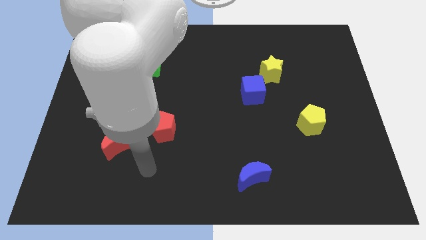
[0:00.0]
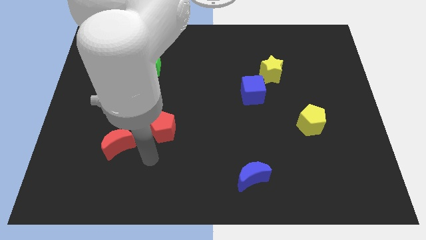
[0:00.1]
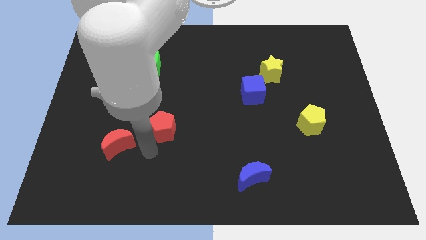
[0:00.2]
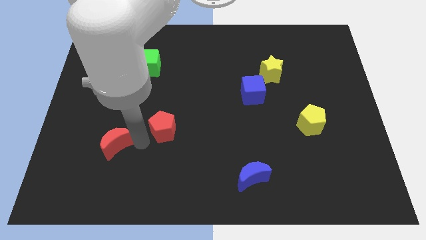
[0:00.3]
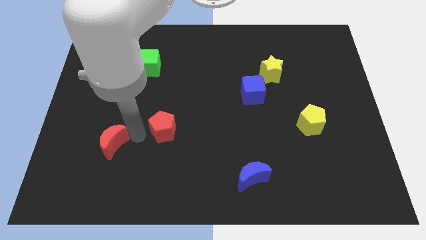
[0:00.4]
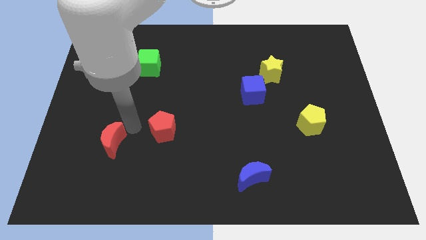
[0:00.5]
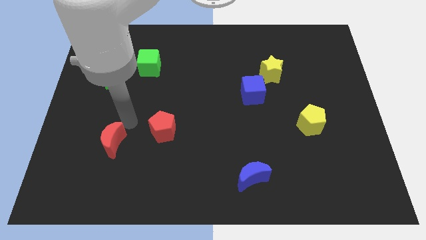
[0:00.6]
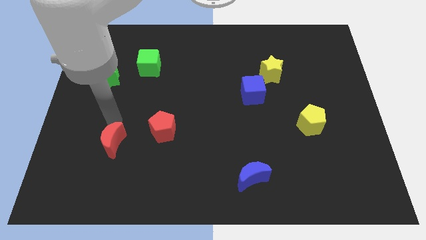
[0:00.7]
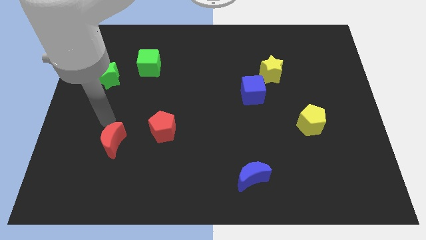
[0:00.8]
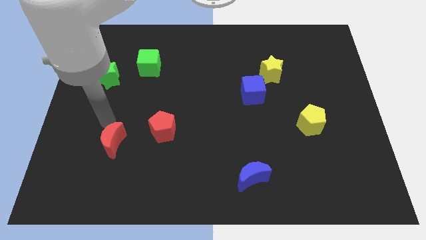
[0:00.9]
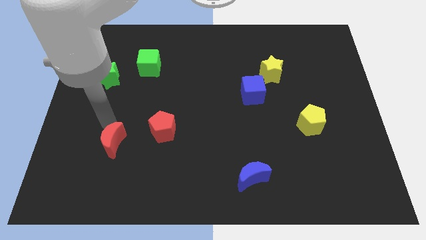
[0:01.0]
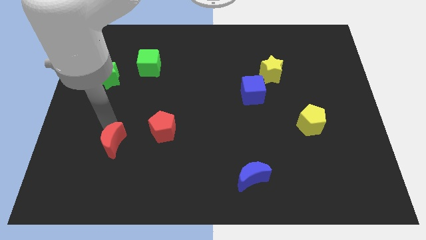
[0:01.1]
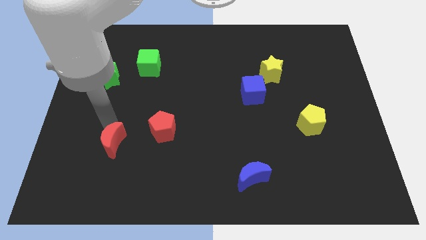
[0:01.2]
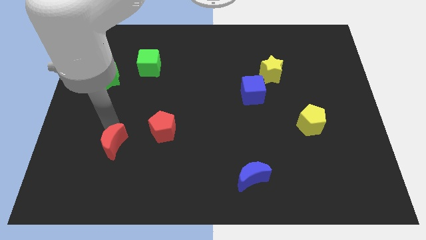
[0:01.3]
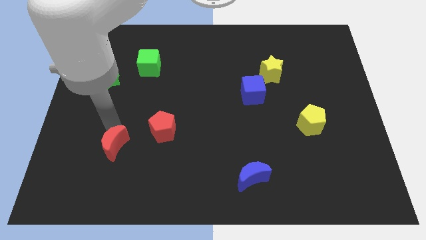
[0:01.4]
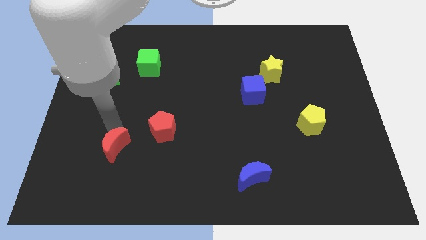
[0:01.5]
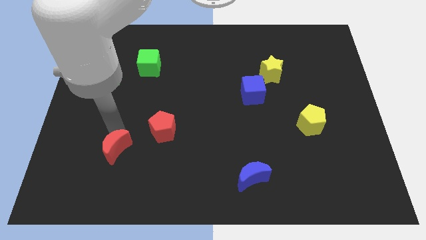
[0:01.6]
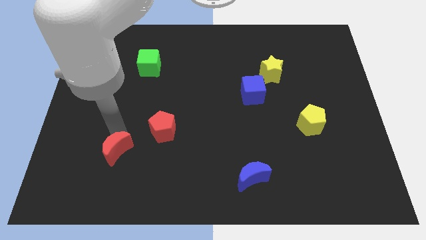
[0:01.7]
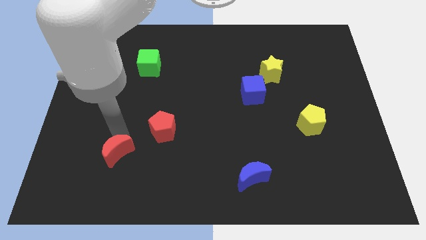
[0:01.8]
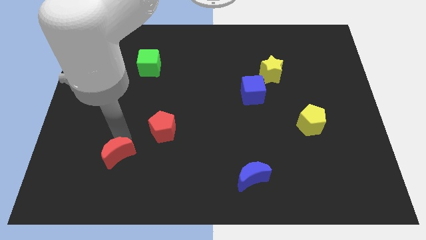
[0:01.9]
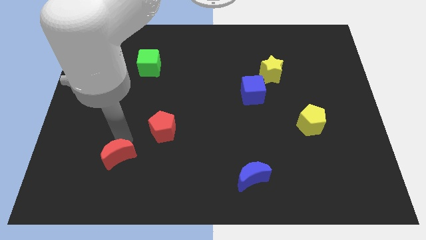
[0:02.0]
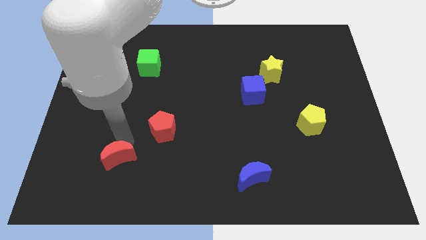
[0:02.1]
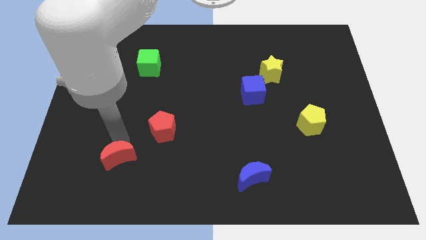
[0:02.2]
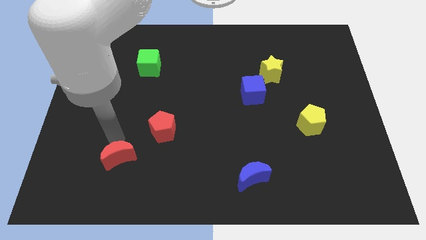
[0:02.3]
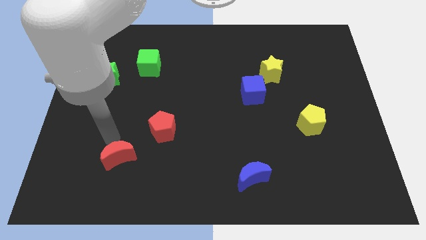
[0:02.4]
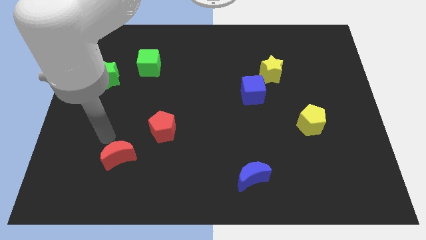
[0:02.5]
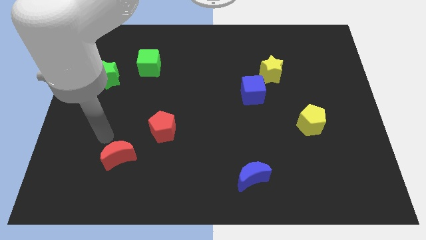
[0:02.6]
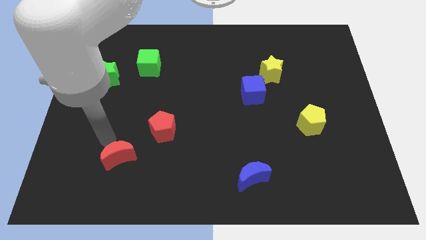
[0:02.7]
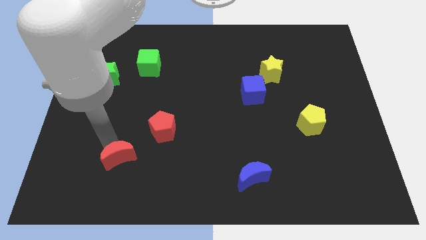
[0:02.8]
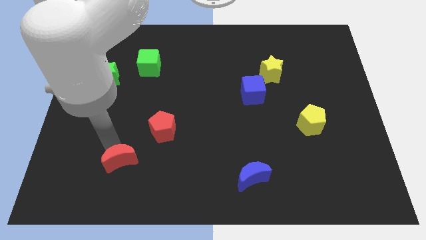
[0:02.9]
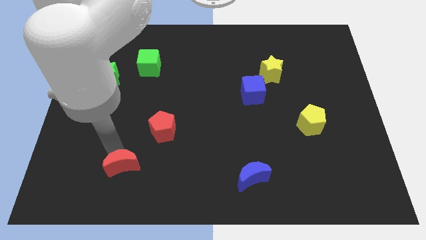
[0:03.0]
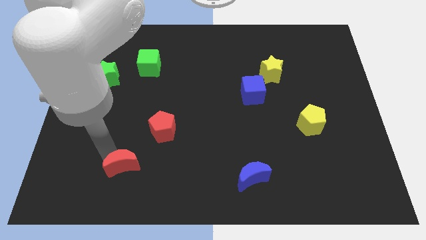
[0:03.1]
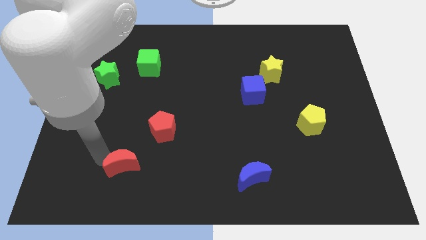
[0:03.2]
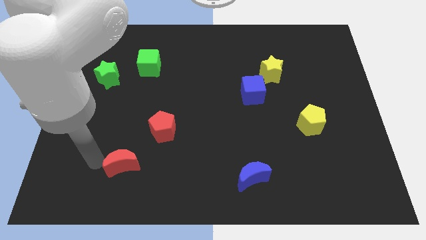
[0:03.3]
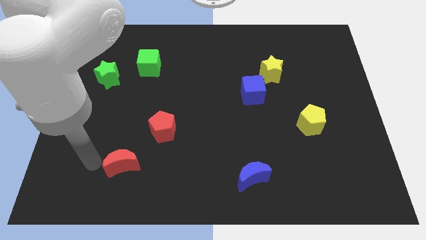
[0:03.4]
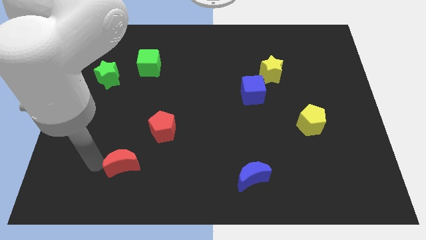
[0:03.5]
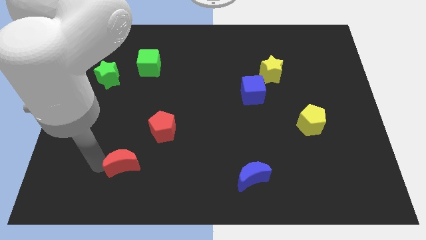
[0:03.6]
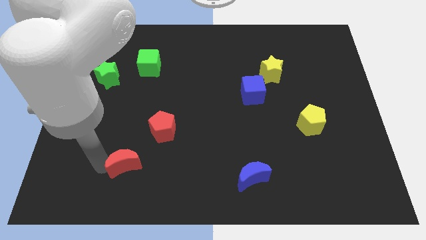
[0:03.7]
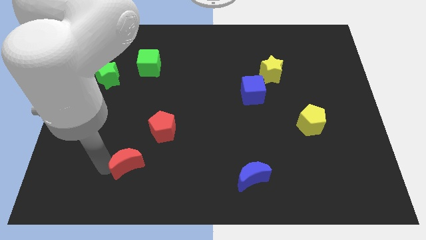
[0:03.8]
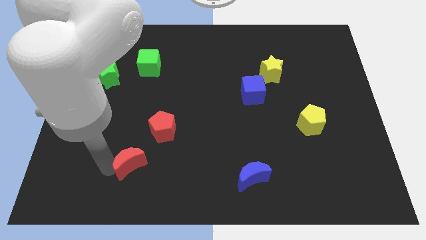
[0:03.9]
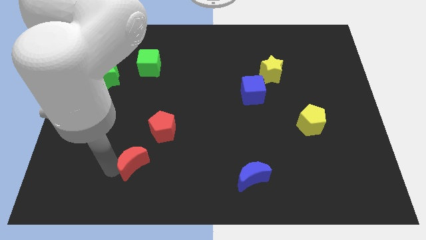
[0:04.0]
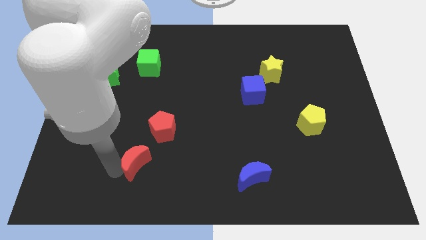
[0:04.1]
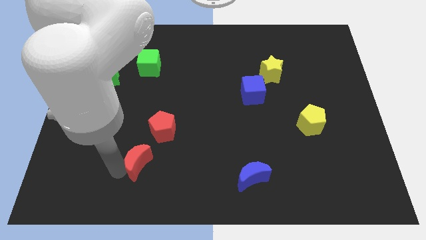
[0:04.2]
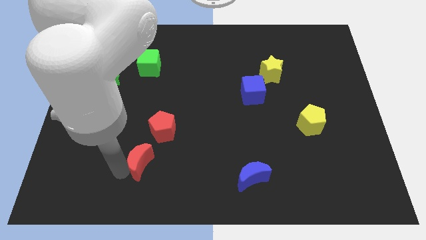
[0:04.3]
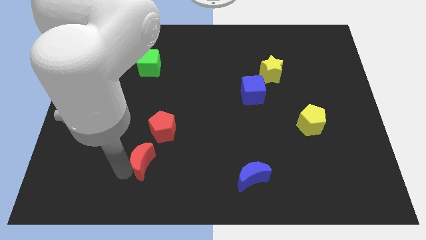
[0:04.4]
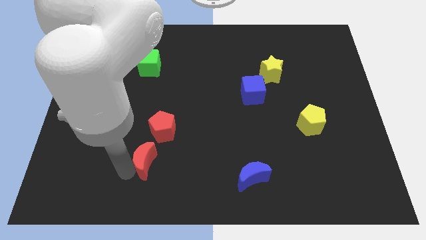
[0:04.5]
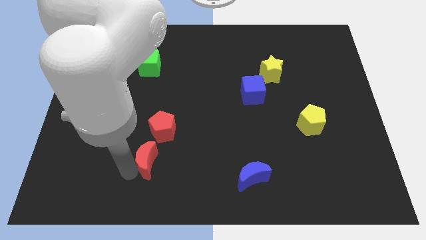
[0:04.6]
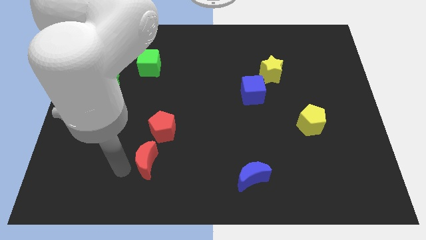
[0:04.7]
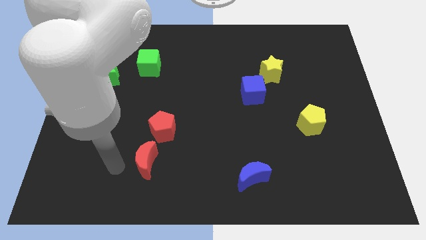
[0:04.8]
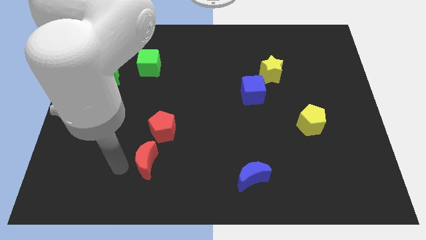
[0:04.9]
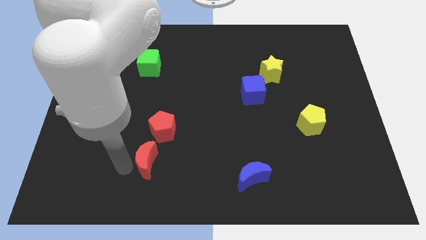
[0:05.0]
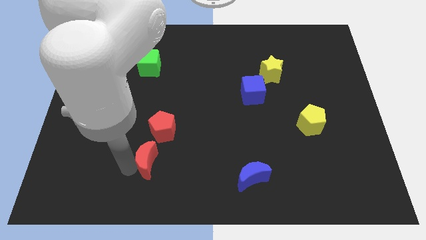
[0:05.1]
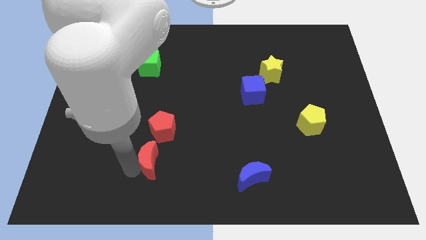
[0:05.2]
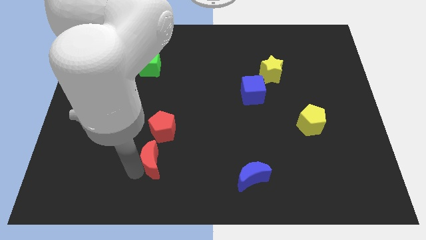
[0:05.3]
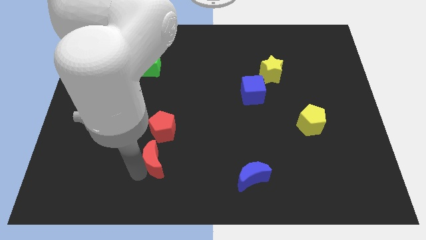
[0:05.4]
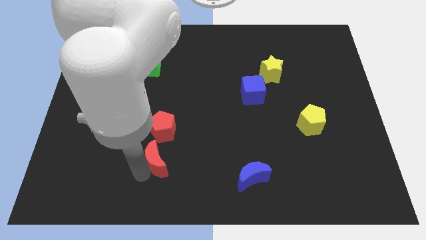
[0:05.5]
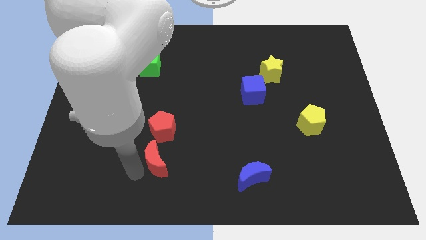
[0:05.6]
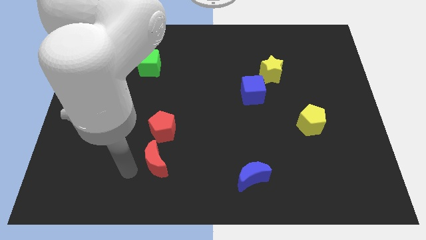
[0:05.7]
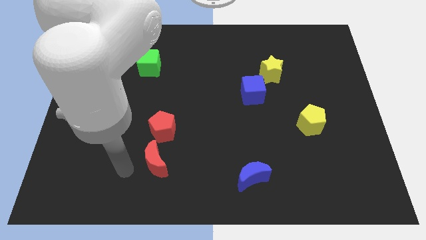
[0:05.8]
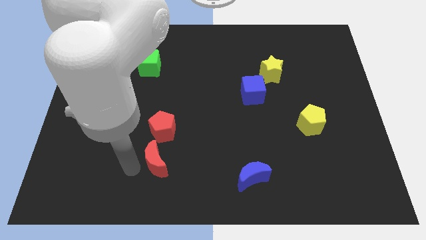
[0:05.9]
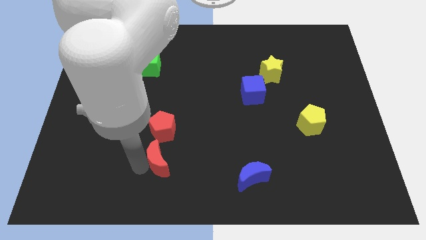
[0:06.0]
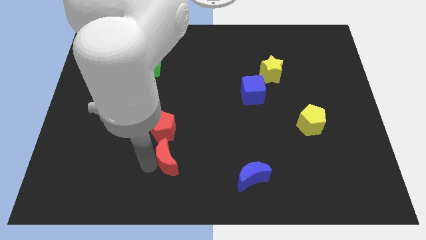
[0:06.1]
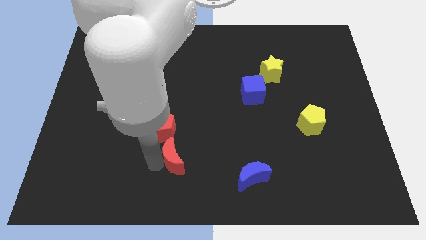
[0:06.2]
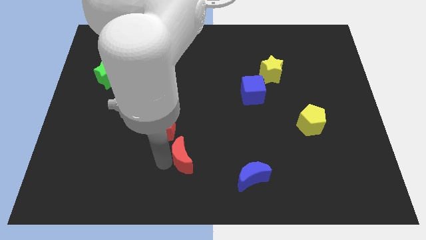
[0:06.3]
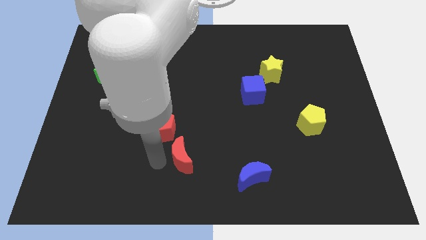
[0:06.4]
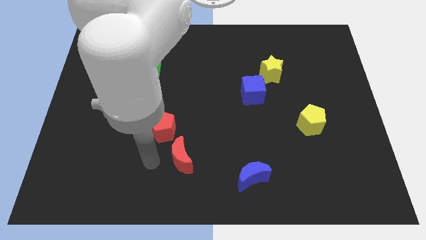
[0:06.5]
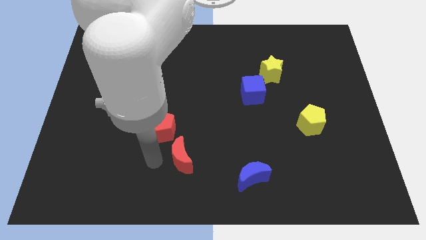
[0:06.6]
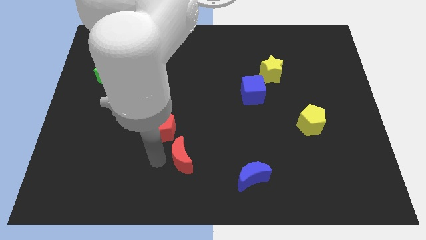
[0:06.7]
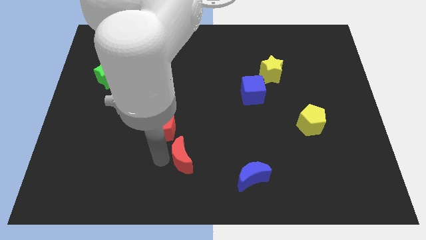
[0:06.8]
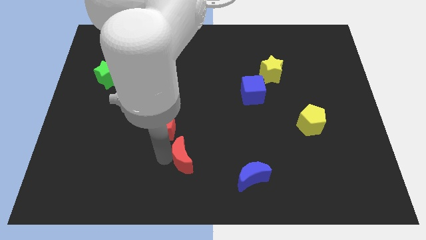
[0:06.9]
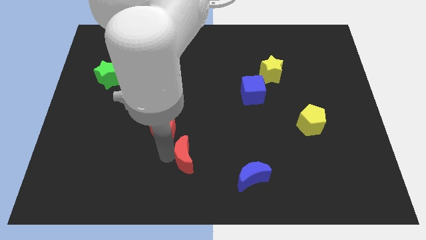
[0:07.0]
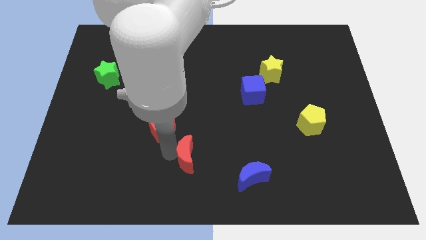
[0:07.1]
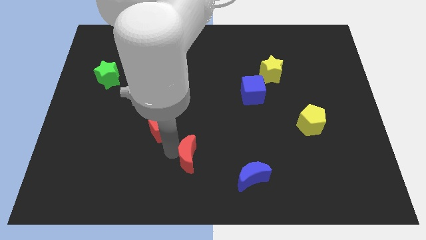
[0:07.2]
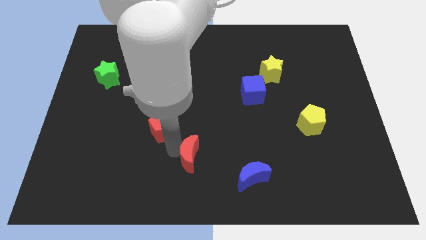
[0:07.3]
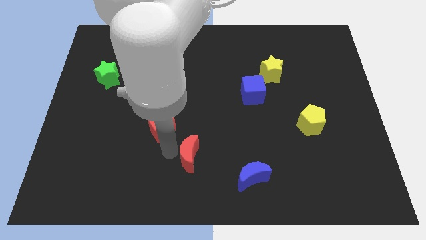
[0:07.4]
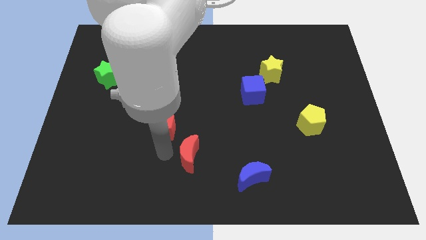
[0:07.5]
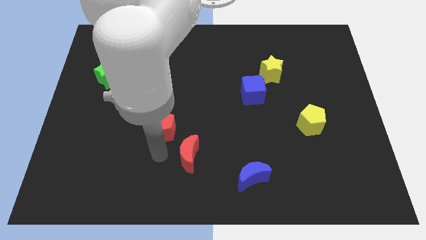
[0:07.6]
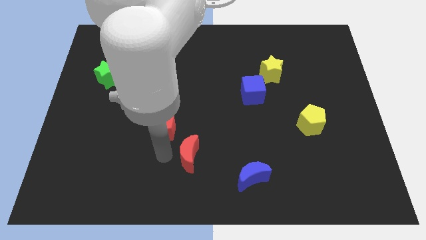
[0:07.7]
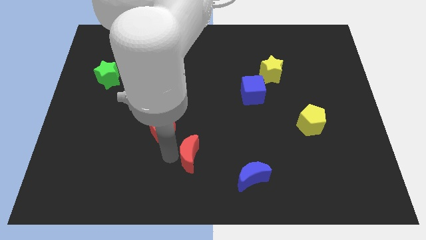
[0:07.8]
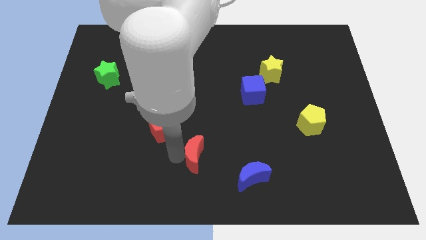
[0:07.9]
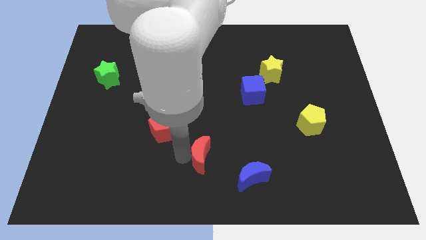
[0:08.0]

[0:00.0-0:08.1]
move the red moon to the top left side of the blue moon

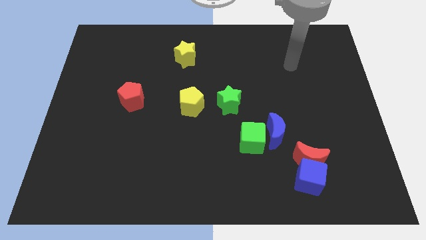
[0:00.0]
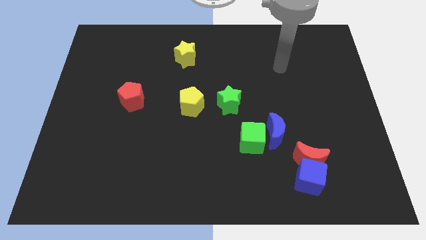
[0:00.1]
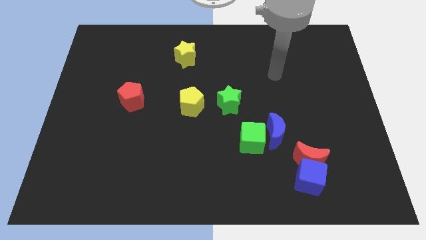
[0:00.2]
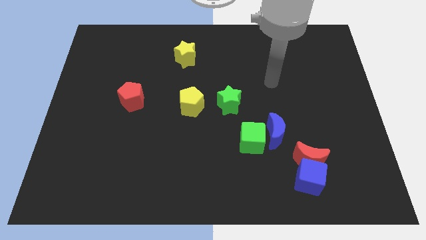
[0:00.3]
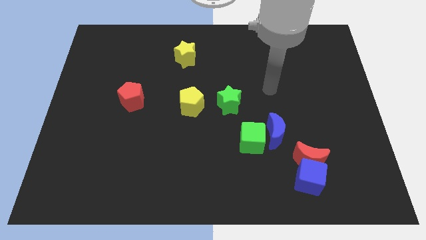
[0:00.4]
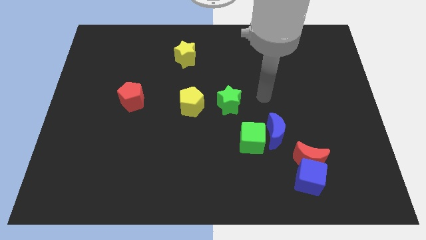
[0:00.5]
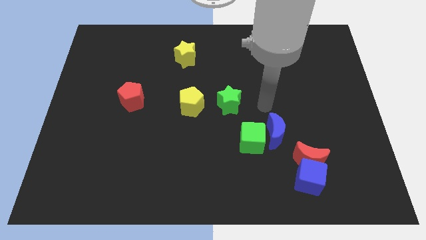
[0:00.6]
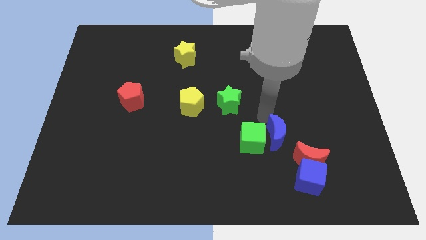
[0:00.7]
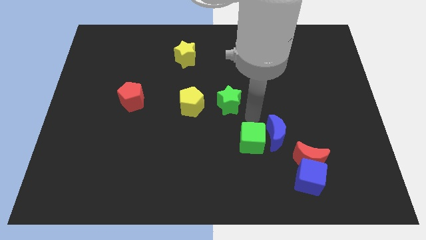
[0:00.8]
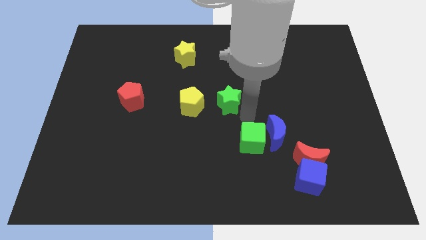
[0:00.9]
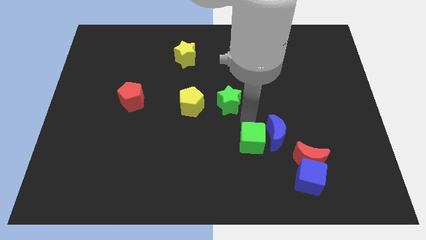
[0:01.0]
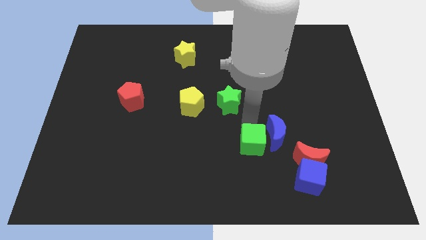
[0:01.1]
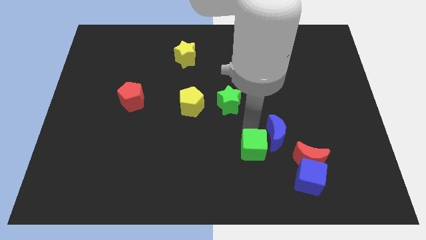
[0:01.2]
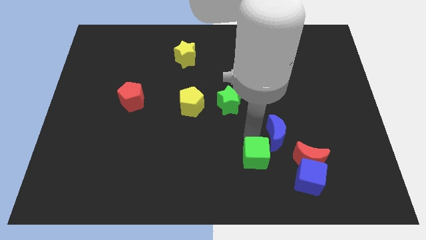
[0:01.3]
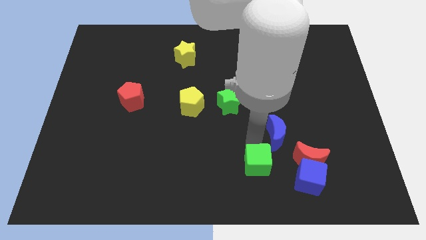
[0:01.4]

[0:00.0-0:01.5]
push the green cube to the left of the blue cube
